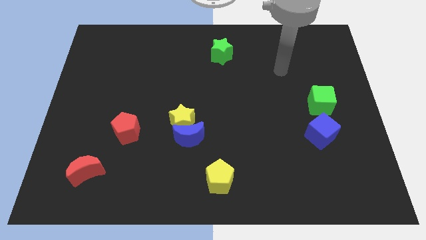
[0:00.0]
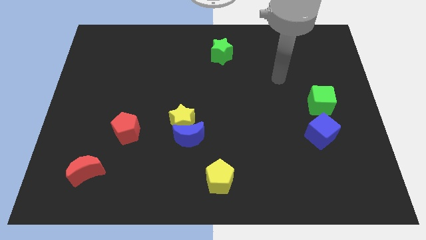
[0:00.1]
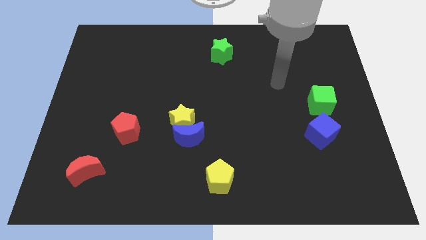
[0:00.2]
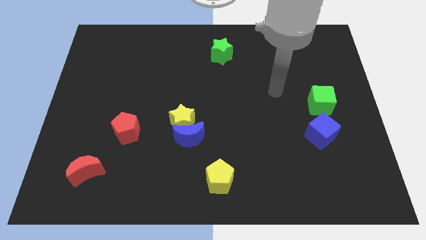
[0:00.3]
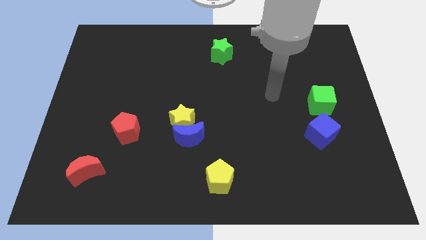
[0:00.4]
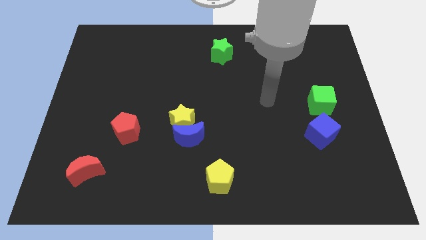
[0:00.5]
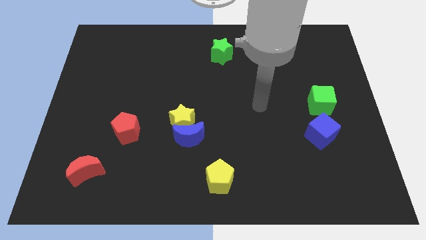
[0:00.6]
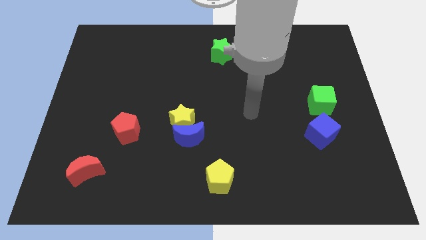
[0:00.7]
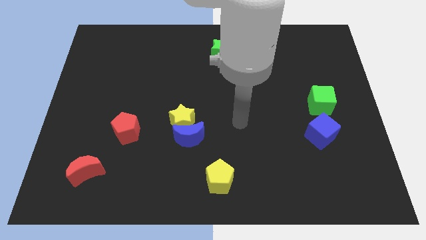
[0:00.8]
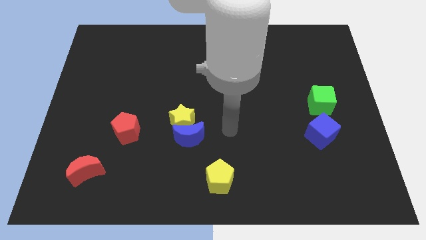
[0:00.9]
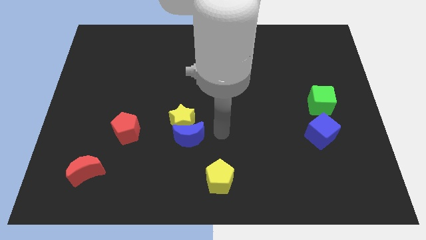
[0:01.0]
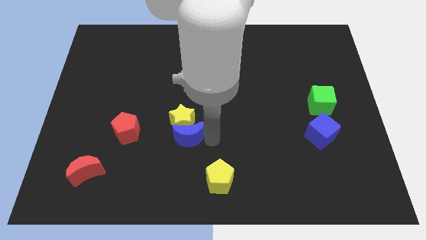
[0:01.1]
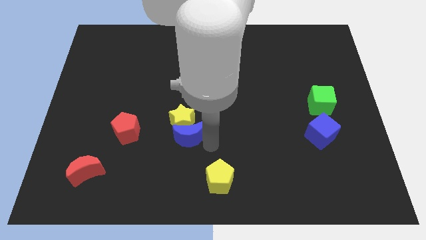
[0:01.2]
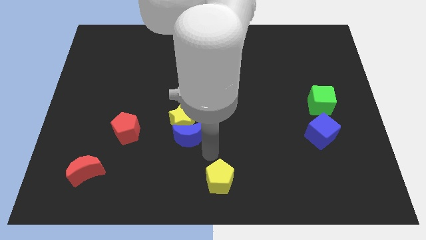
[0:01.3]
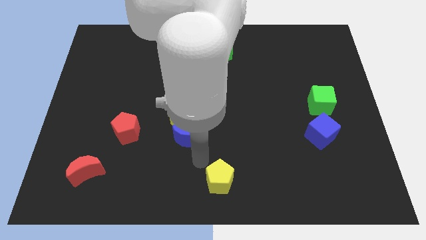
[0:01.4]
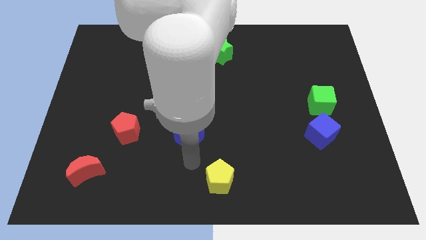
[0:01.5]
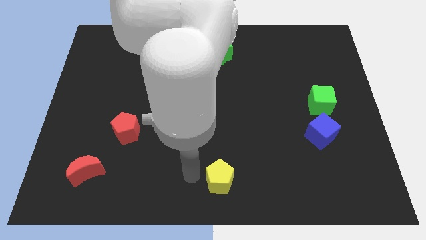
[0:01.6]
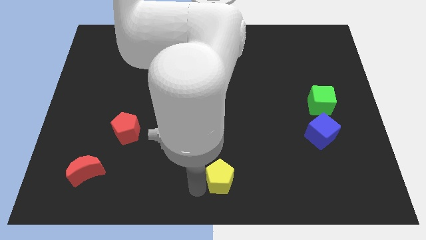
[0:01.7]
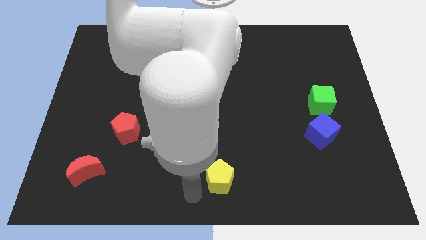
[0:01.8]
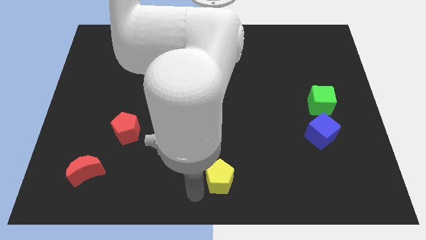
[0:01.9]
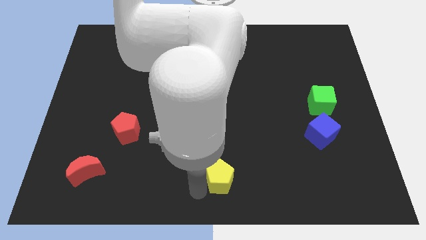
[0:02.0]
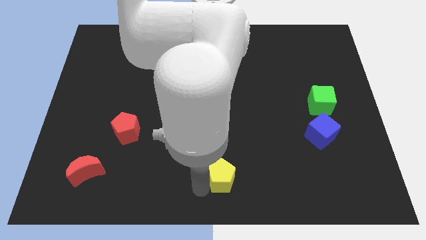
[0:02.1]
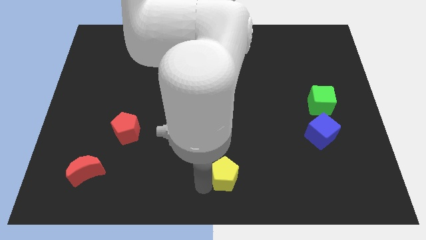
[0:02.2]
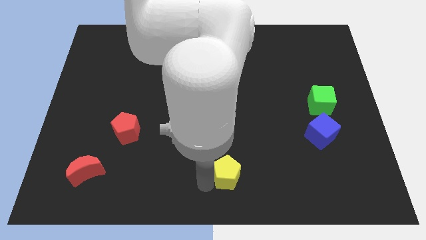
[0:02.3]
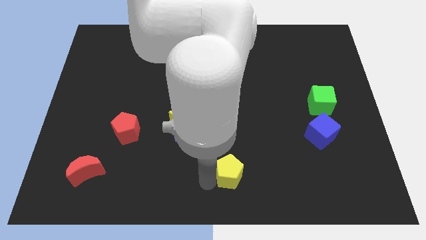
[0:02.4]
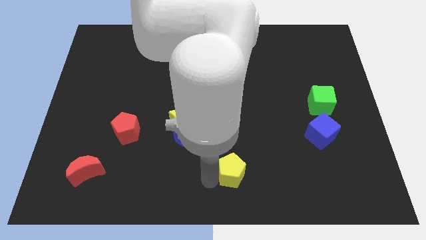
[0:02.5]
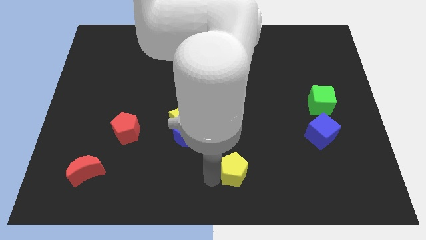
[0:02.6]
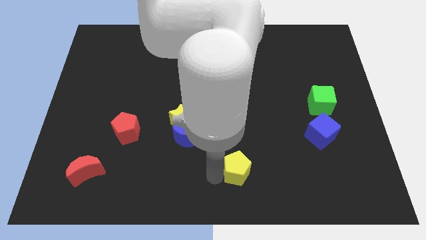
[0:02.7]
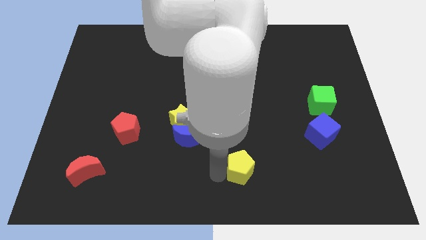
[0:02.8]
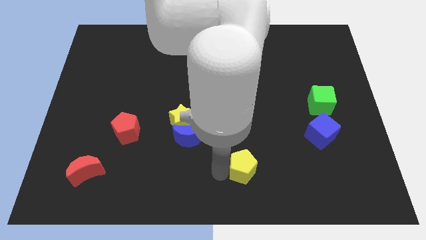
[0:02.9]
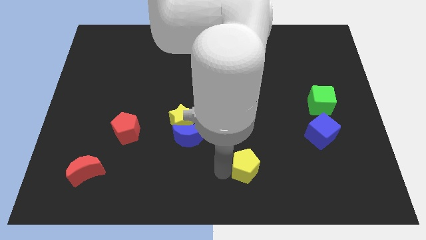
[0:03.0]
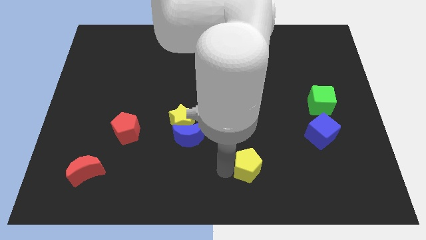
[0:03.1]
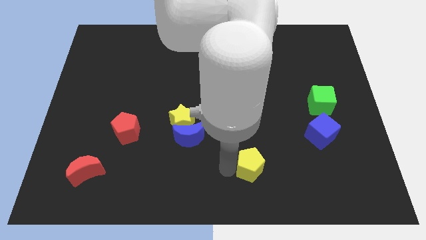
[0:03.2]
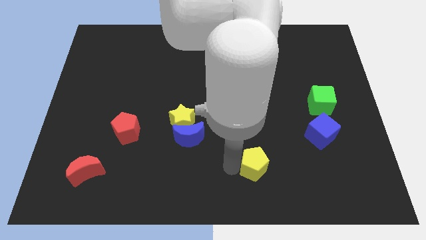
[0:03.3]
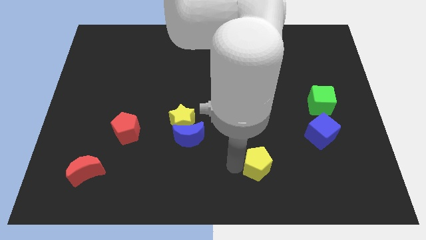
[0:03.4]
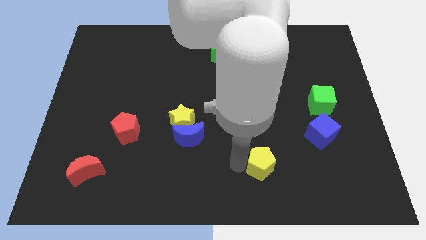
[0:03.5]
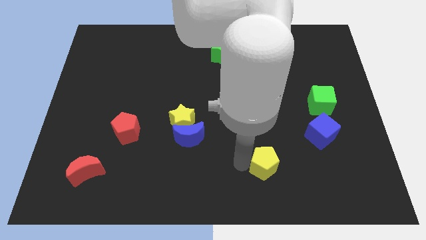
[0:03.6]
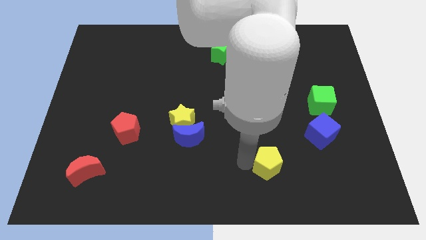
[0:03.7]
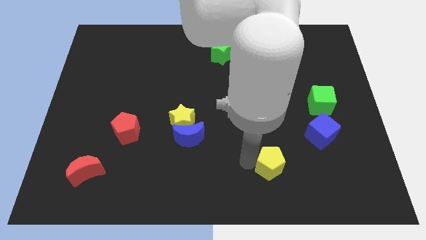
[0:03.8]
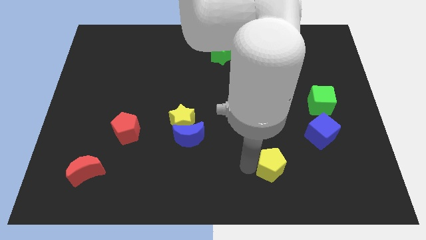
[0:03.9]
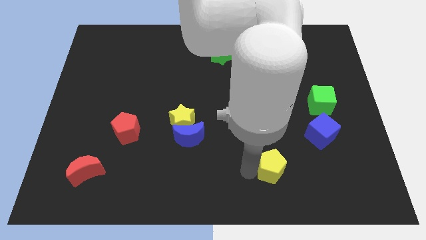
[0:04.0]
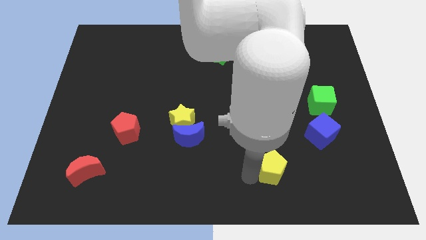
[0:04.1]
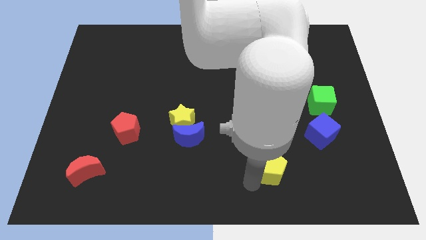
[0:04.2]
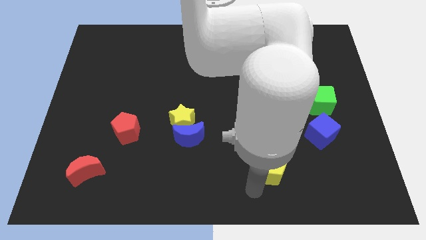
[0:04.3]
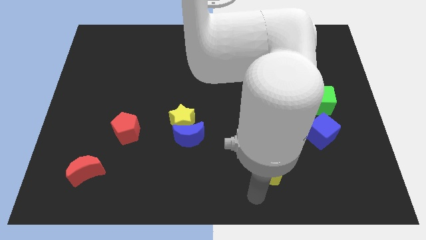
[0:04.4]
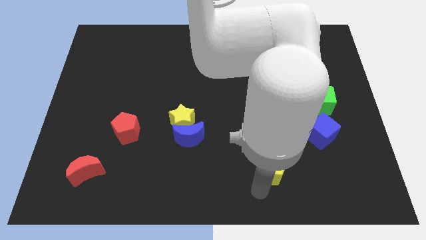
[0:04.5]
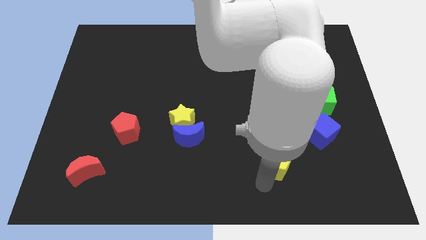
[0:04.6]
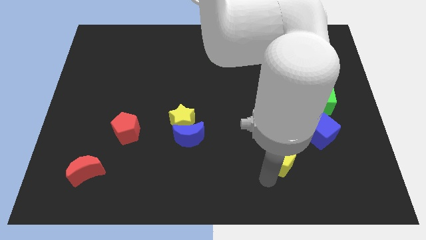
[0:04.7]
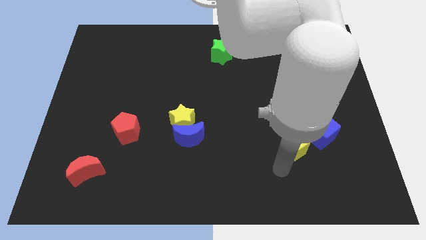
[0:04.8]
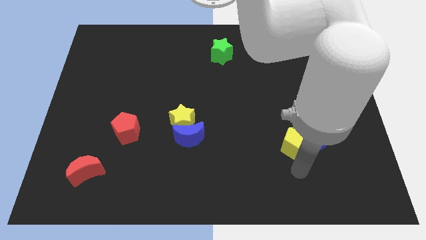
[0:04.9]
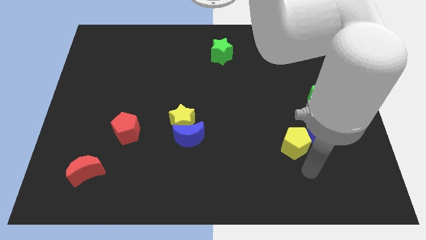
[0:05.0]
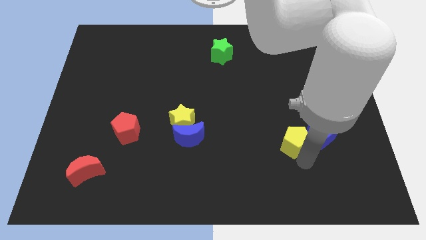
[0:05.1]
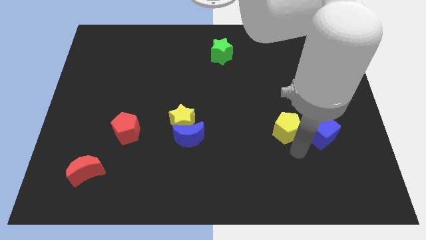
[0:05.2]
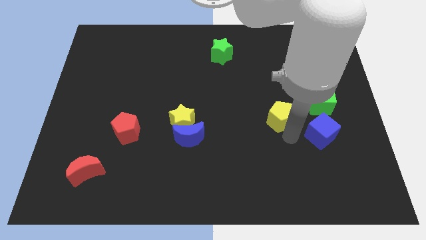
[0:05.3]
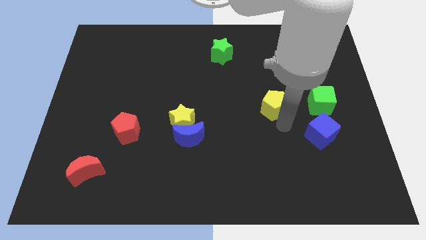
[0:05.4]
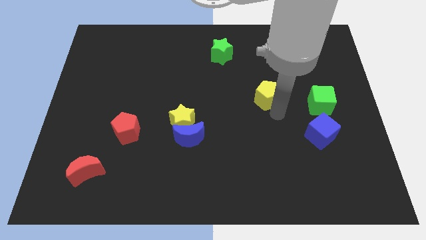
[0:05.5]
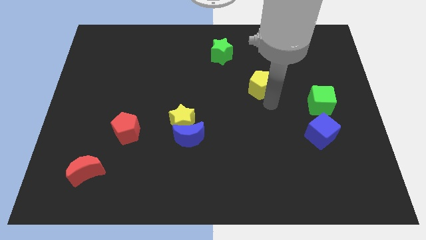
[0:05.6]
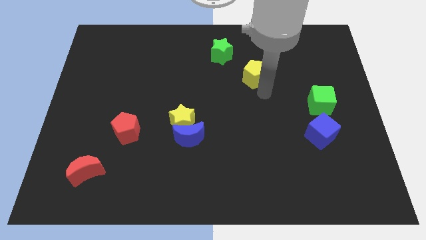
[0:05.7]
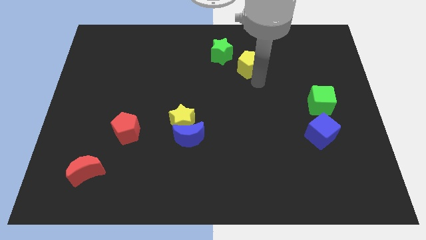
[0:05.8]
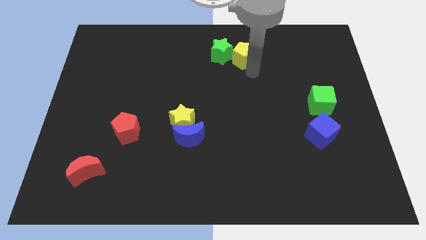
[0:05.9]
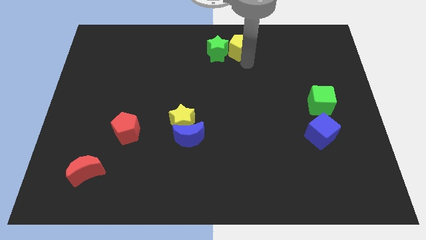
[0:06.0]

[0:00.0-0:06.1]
put the yellow pentagon to the top
